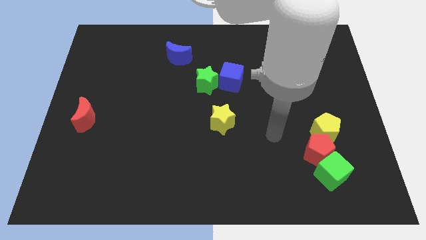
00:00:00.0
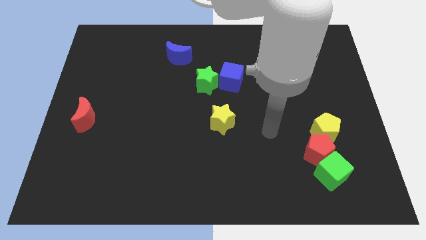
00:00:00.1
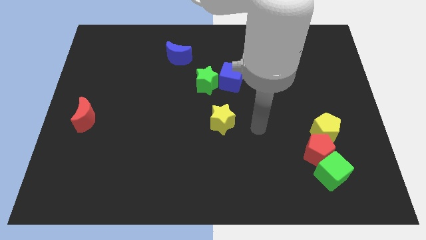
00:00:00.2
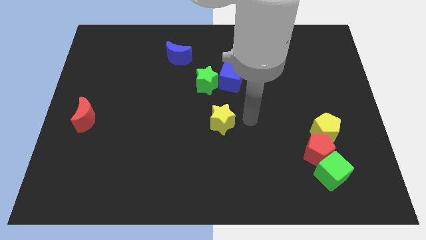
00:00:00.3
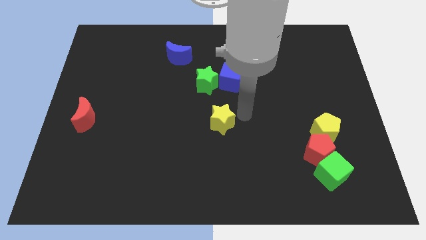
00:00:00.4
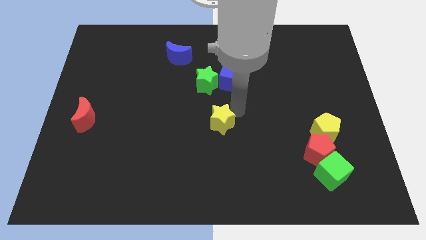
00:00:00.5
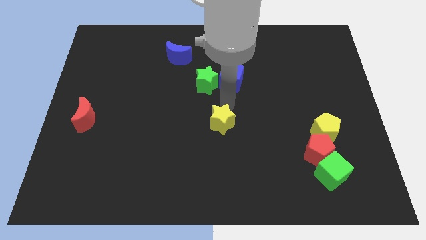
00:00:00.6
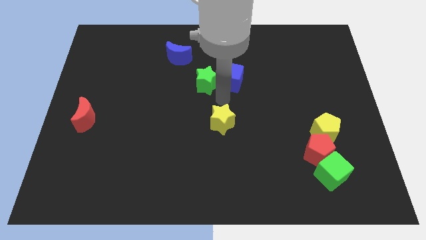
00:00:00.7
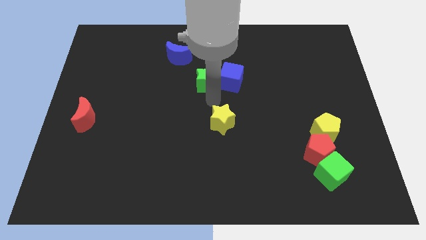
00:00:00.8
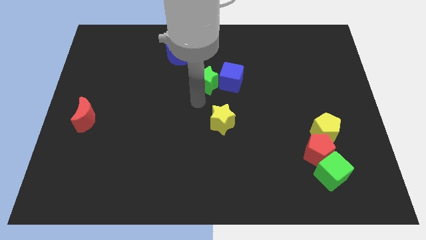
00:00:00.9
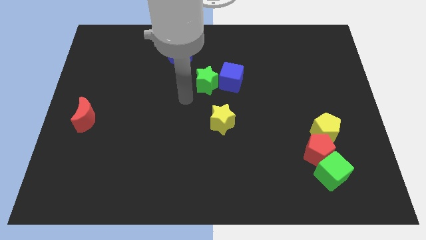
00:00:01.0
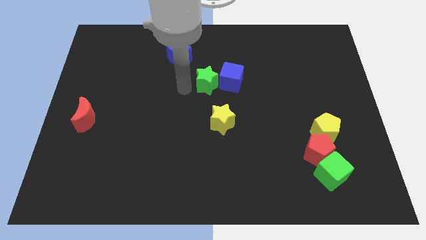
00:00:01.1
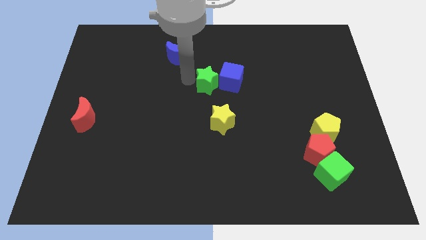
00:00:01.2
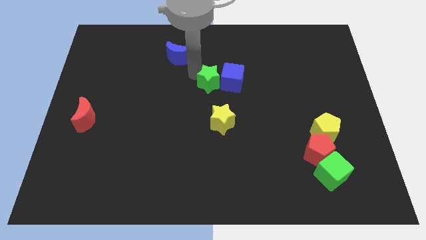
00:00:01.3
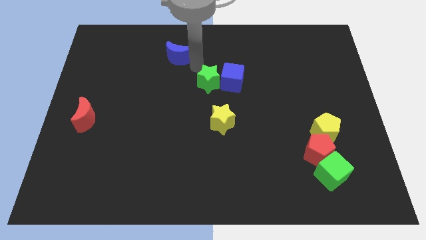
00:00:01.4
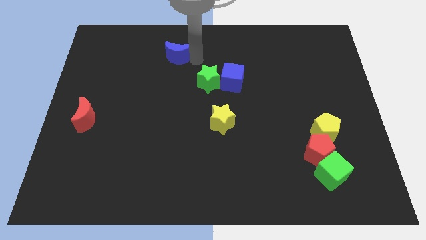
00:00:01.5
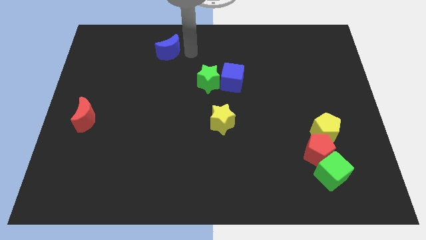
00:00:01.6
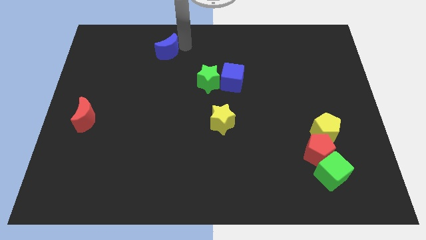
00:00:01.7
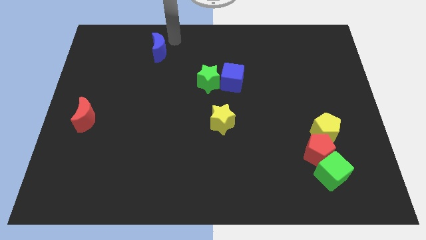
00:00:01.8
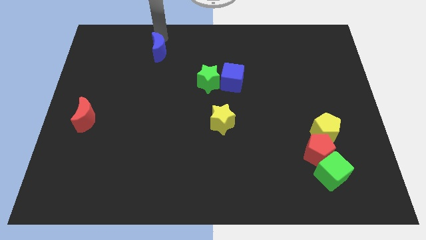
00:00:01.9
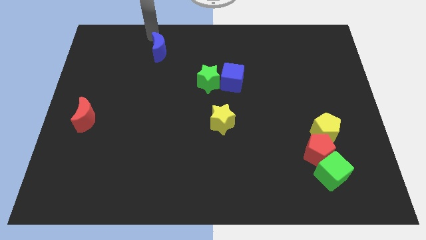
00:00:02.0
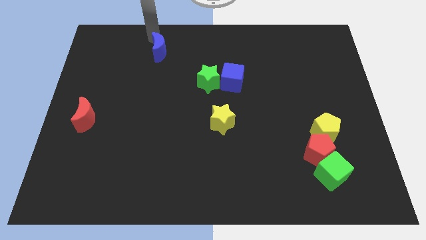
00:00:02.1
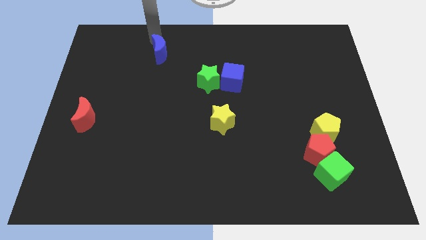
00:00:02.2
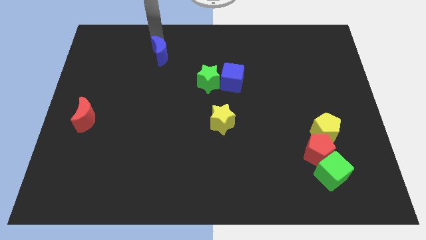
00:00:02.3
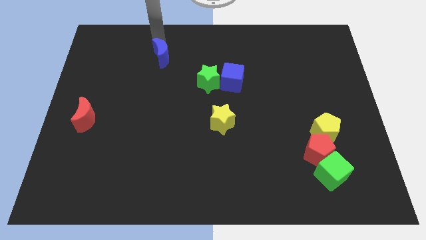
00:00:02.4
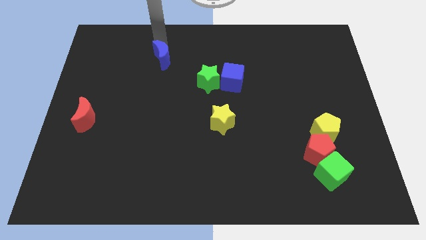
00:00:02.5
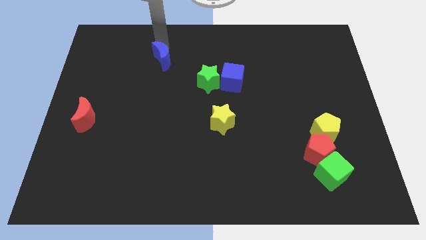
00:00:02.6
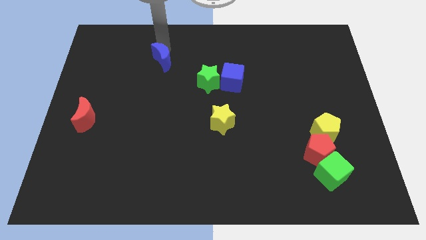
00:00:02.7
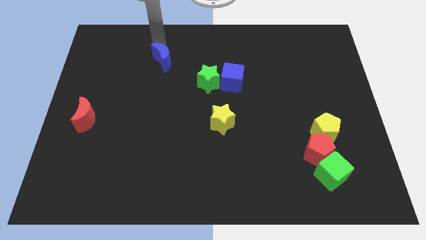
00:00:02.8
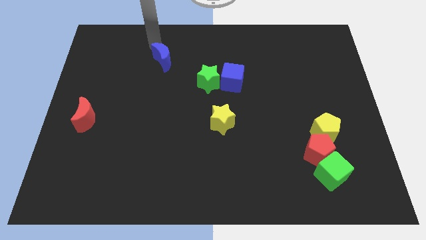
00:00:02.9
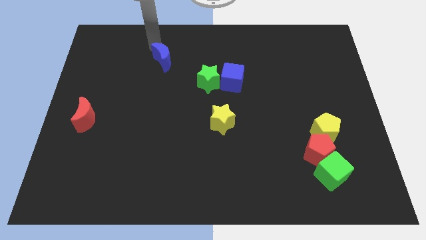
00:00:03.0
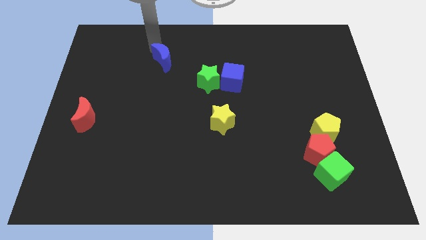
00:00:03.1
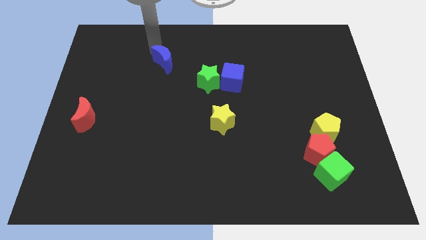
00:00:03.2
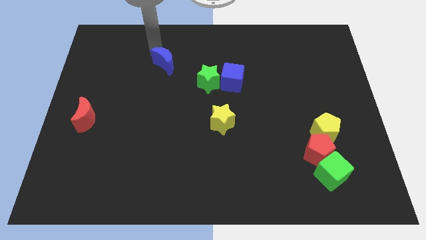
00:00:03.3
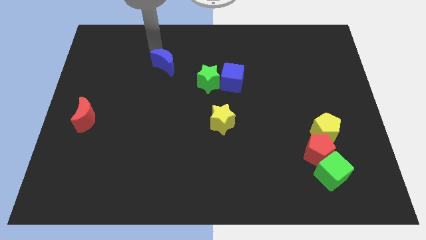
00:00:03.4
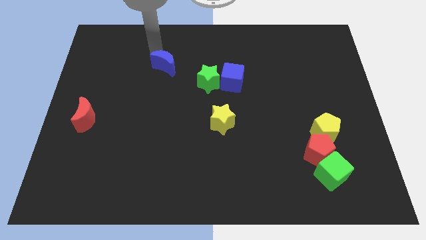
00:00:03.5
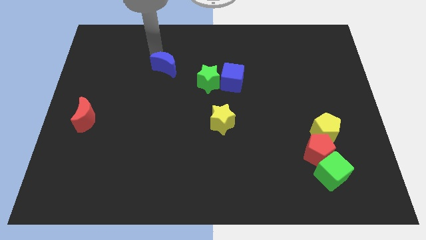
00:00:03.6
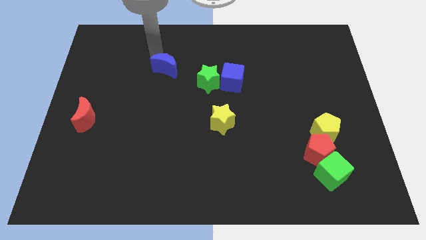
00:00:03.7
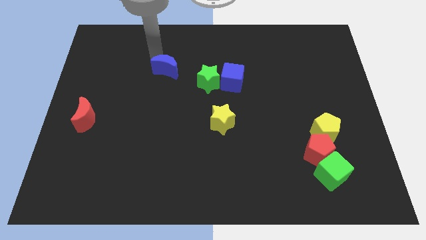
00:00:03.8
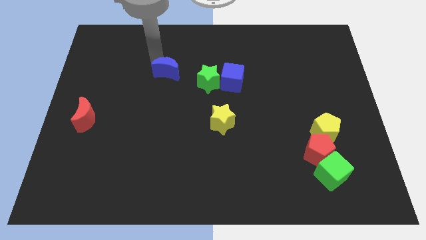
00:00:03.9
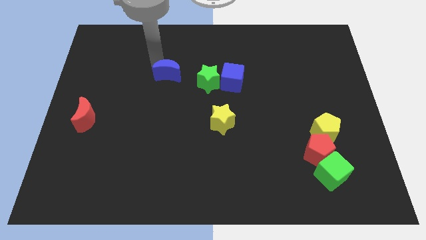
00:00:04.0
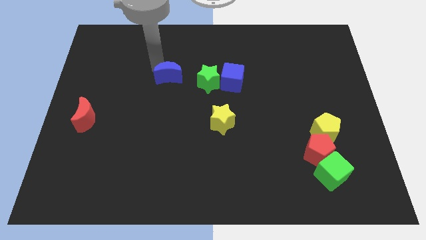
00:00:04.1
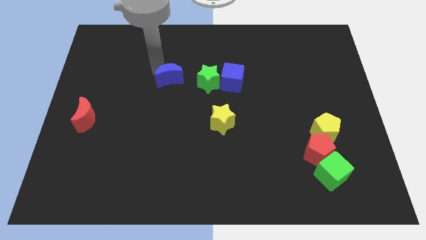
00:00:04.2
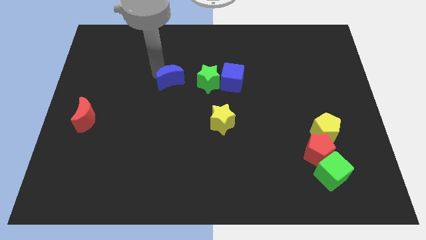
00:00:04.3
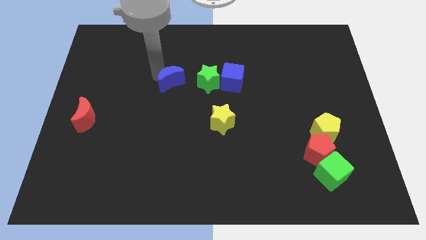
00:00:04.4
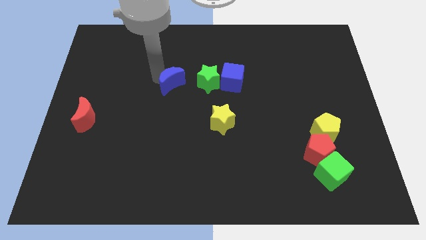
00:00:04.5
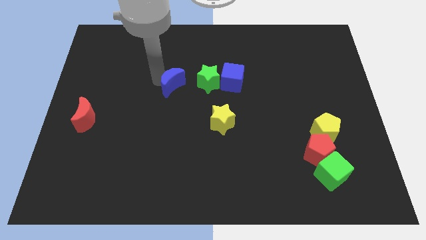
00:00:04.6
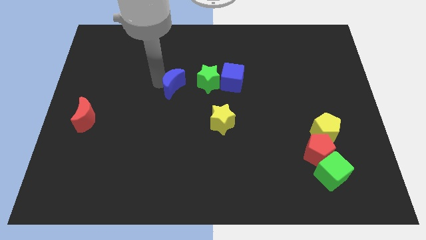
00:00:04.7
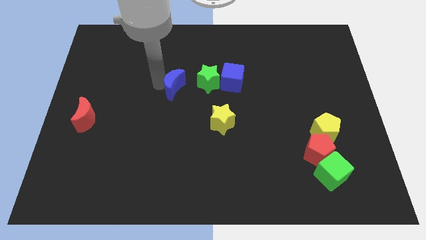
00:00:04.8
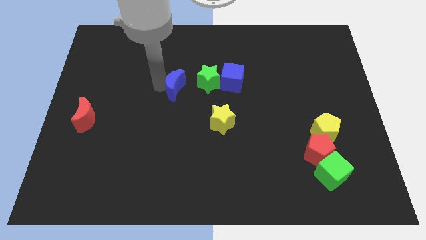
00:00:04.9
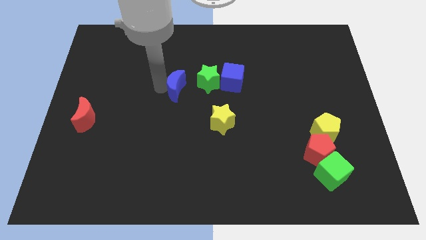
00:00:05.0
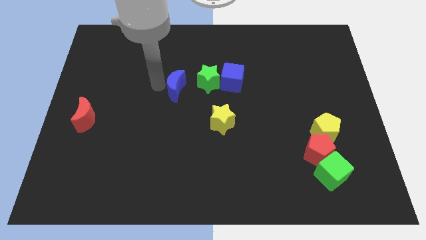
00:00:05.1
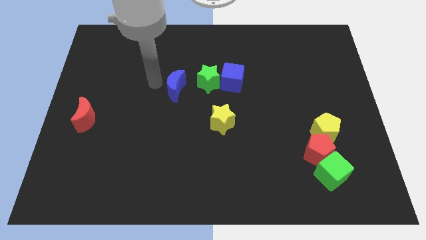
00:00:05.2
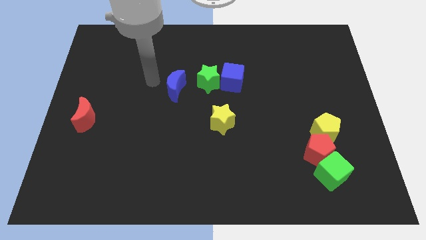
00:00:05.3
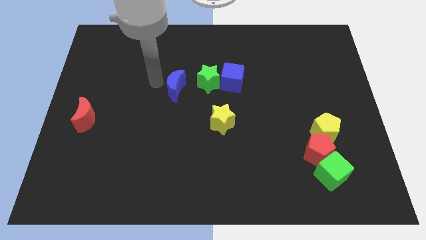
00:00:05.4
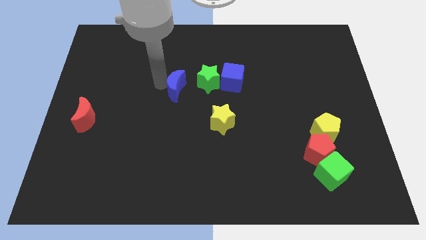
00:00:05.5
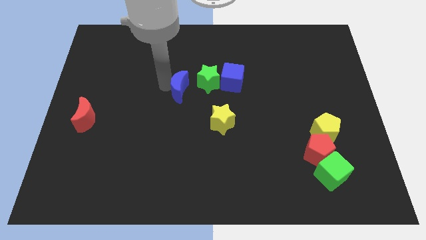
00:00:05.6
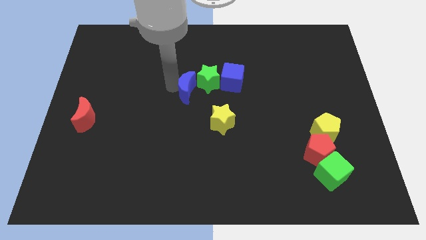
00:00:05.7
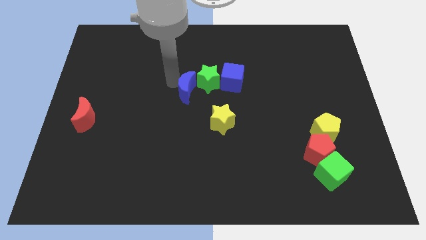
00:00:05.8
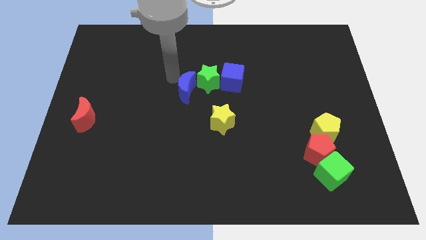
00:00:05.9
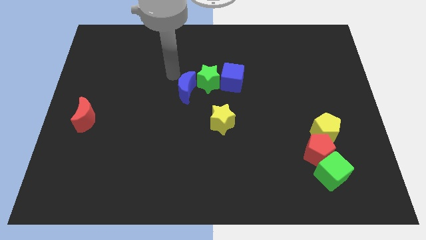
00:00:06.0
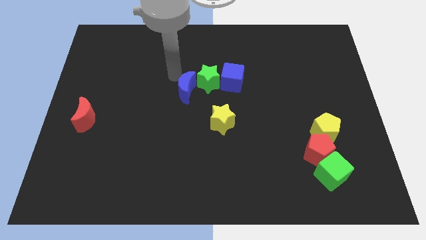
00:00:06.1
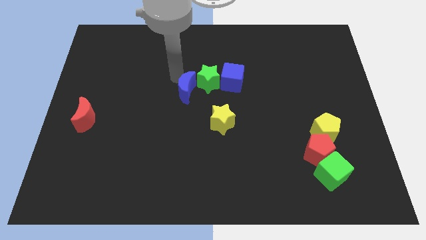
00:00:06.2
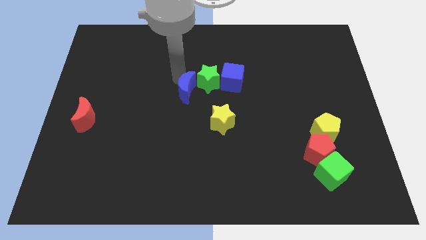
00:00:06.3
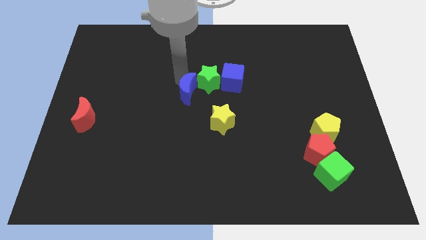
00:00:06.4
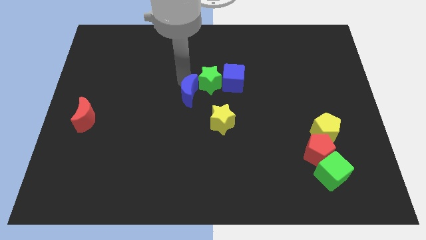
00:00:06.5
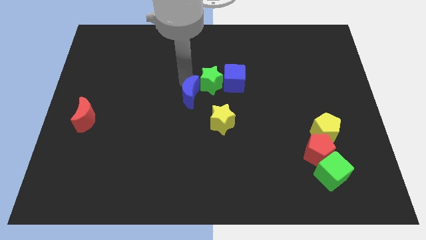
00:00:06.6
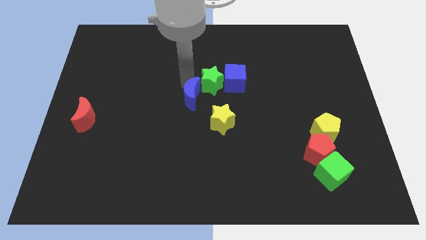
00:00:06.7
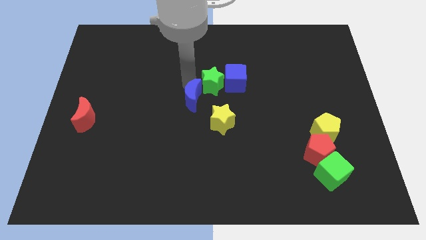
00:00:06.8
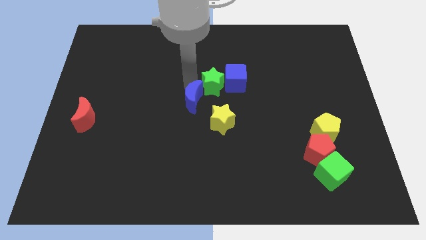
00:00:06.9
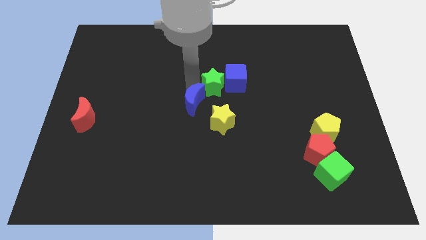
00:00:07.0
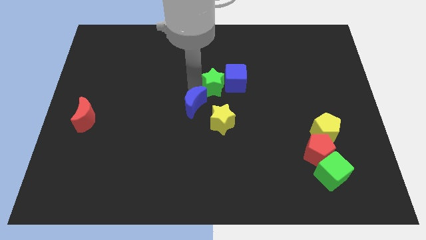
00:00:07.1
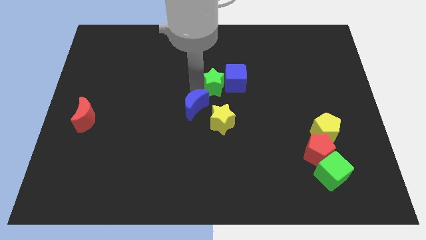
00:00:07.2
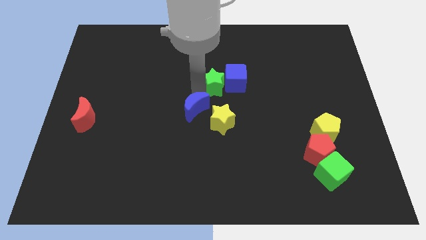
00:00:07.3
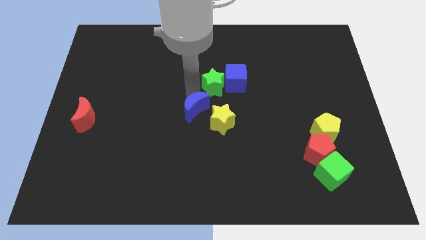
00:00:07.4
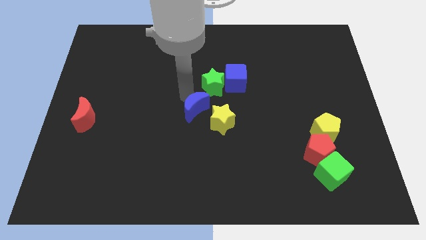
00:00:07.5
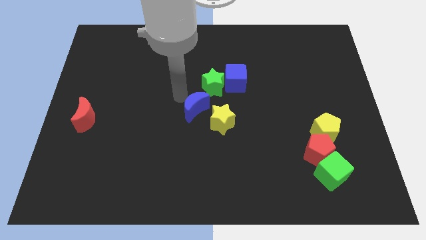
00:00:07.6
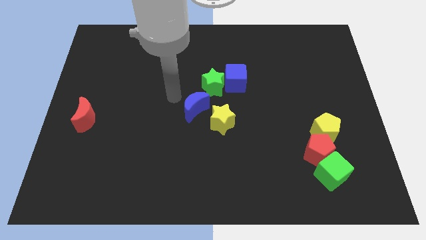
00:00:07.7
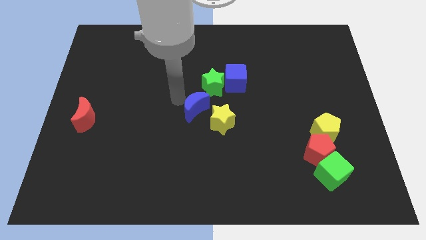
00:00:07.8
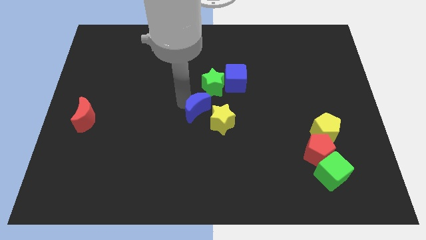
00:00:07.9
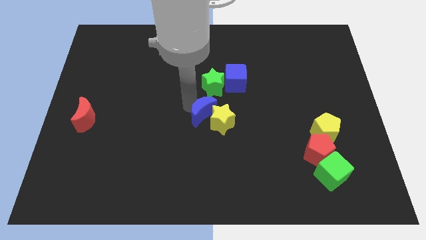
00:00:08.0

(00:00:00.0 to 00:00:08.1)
move the blue moon to the yellow star
